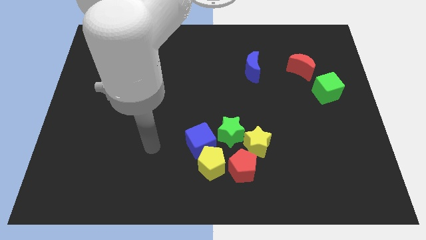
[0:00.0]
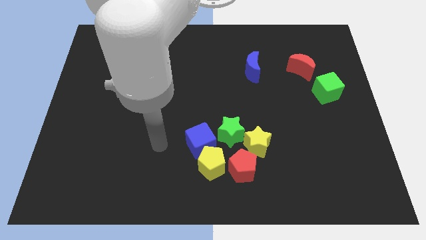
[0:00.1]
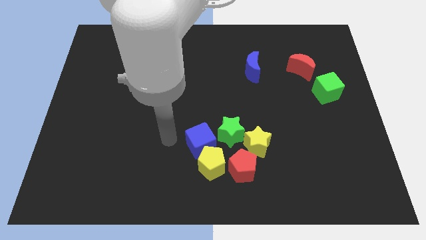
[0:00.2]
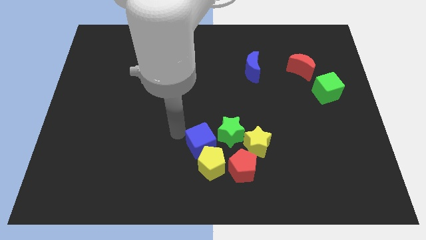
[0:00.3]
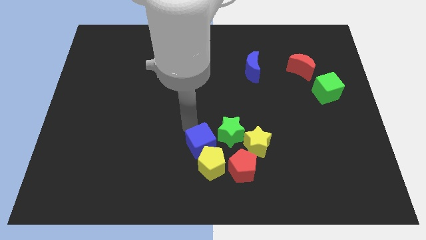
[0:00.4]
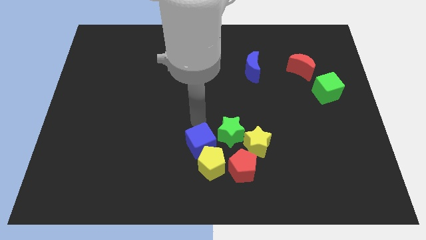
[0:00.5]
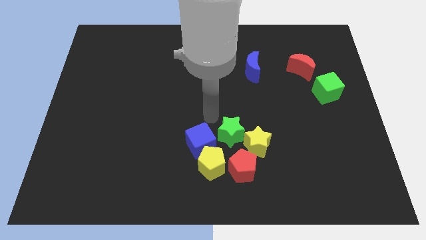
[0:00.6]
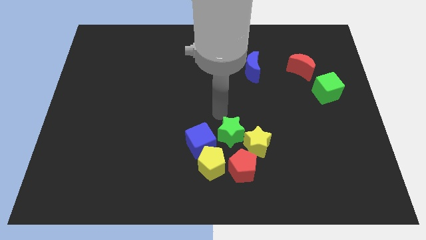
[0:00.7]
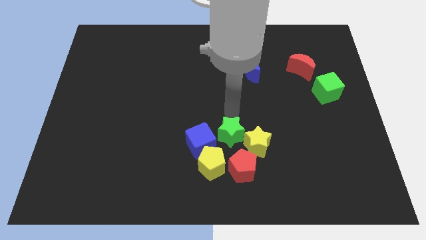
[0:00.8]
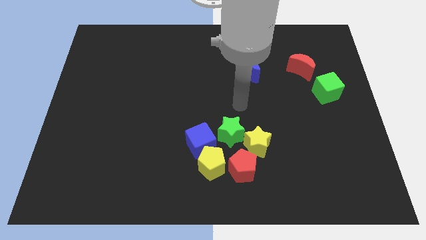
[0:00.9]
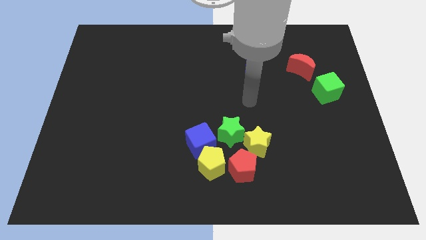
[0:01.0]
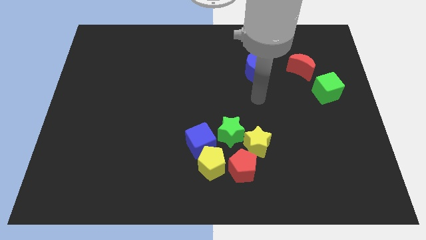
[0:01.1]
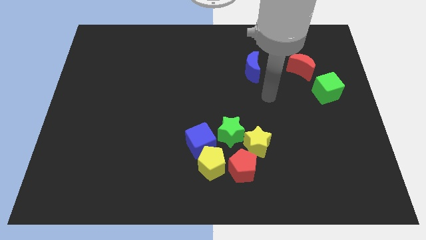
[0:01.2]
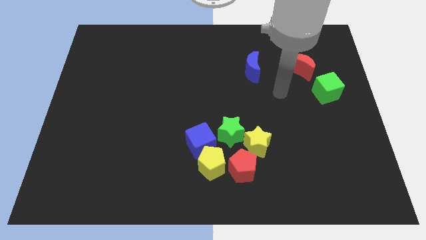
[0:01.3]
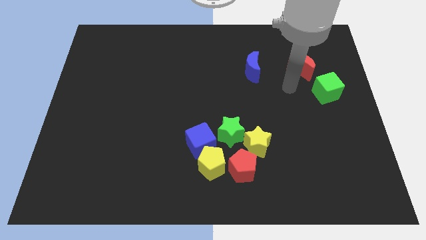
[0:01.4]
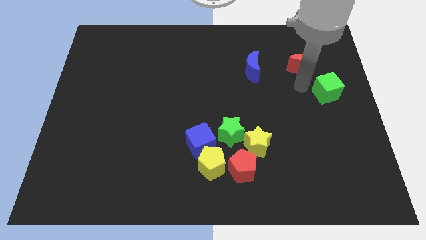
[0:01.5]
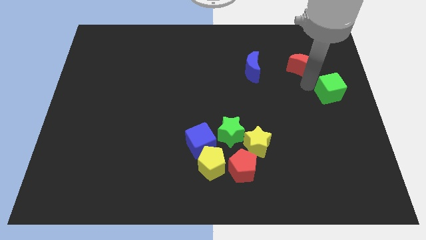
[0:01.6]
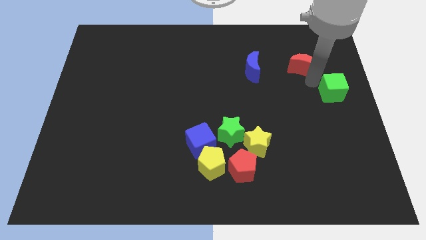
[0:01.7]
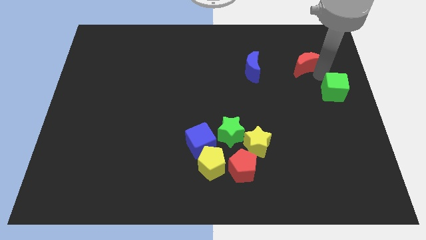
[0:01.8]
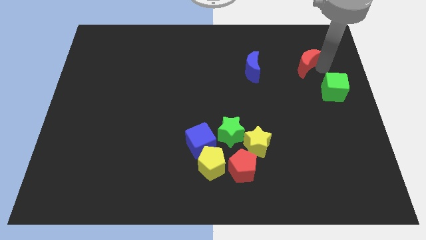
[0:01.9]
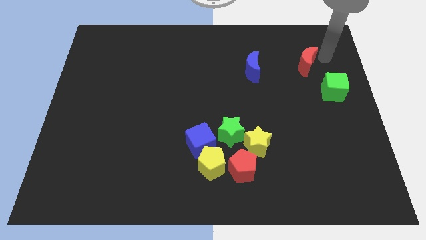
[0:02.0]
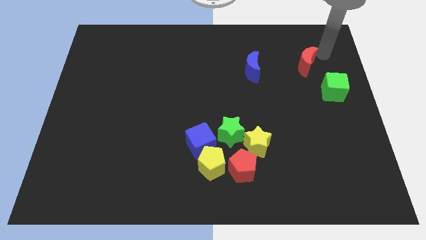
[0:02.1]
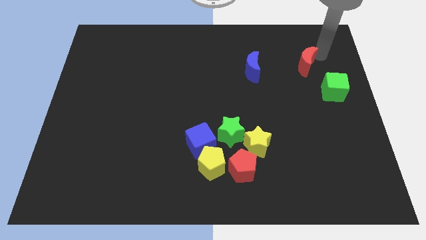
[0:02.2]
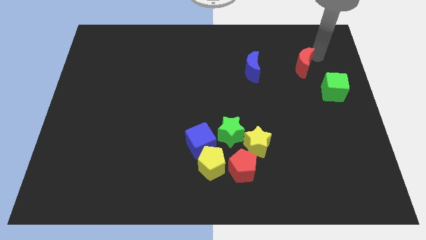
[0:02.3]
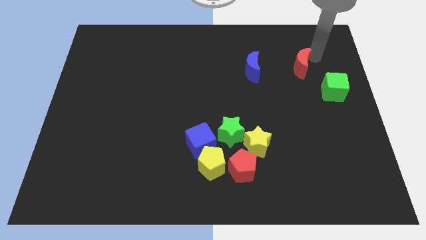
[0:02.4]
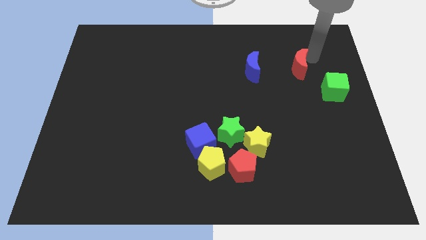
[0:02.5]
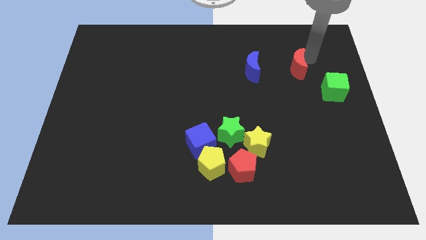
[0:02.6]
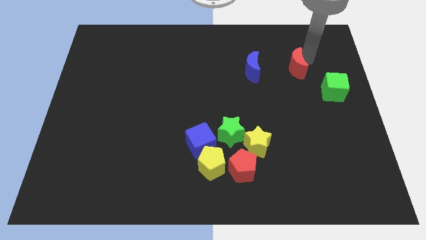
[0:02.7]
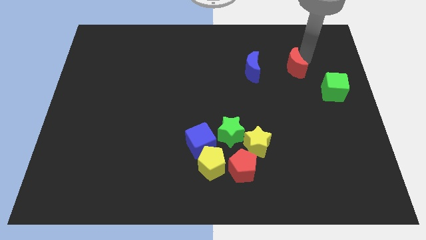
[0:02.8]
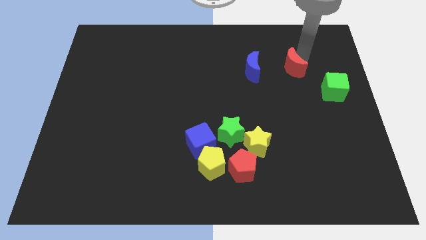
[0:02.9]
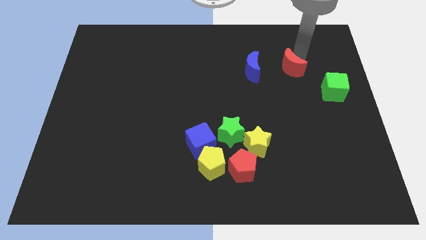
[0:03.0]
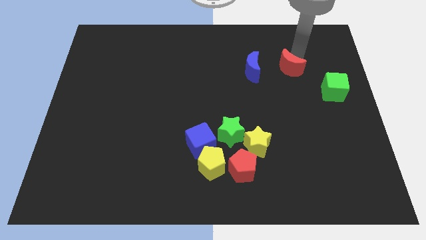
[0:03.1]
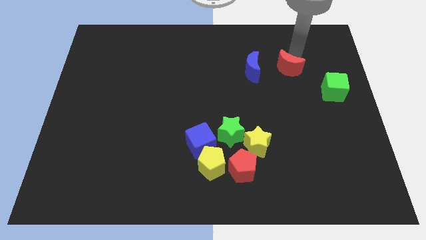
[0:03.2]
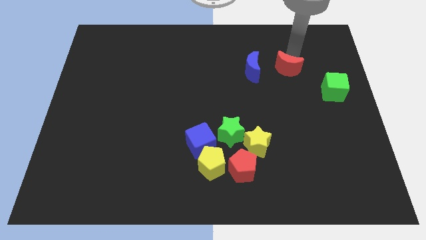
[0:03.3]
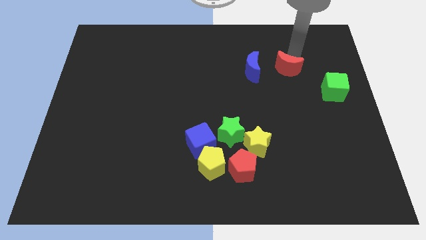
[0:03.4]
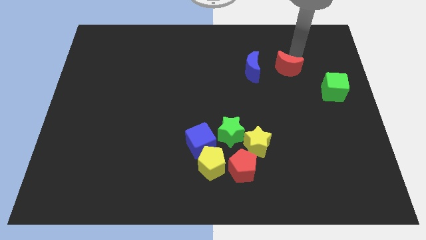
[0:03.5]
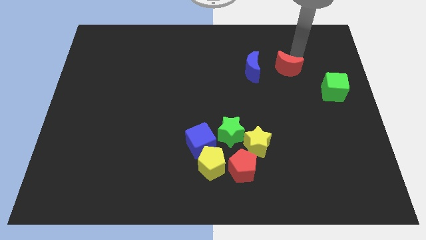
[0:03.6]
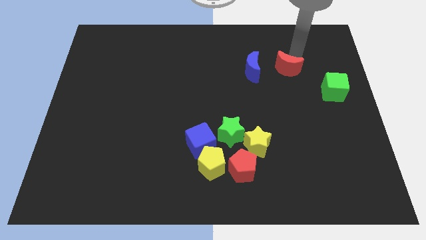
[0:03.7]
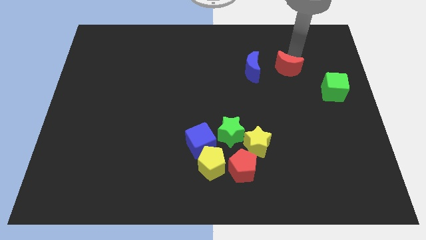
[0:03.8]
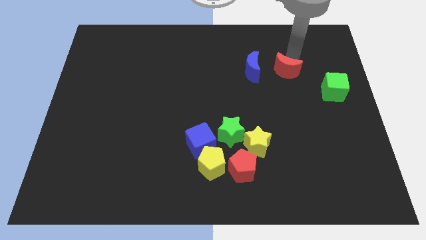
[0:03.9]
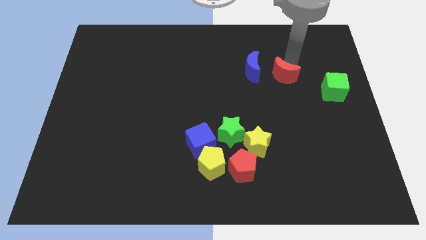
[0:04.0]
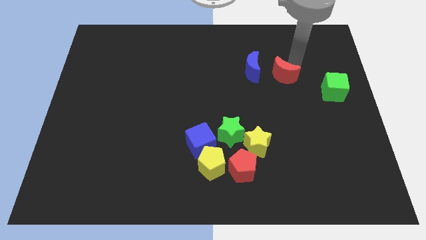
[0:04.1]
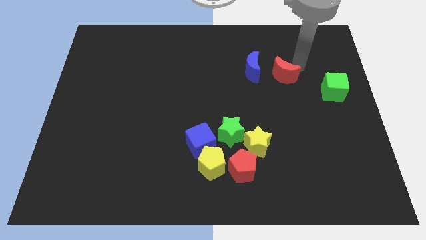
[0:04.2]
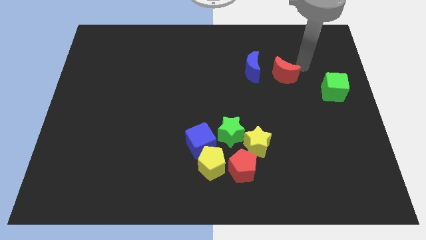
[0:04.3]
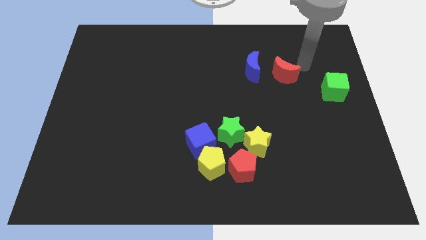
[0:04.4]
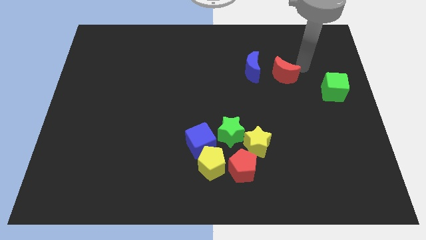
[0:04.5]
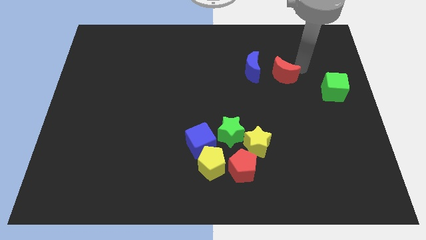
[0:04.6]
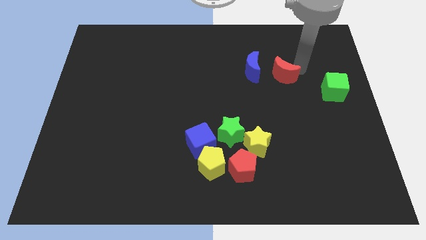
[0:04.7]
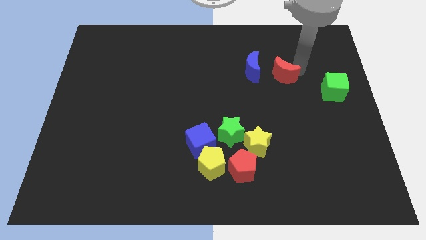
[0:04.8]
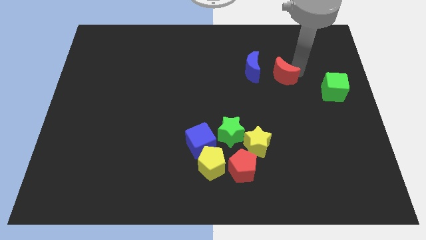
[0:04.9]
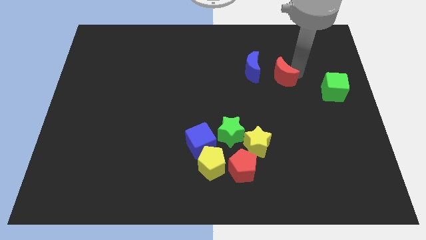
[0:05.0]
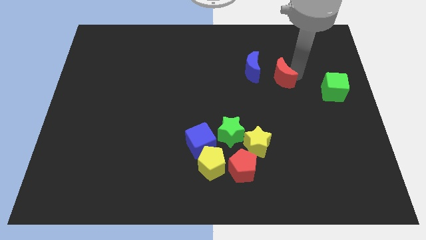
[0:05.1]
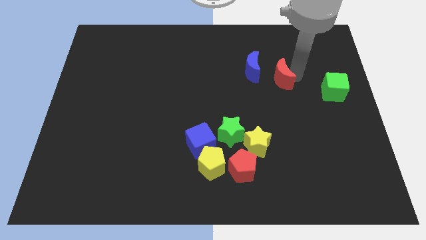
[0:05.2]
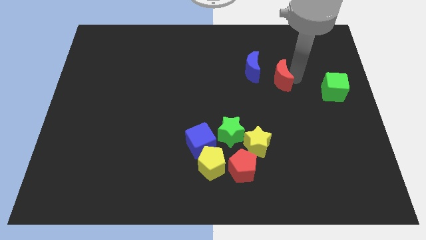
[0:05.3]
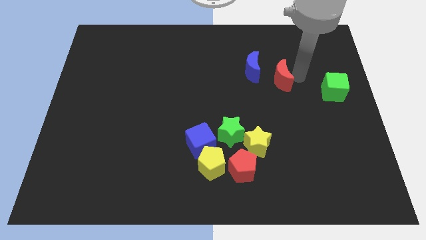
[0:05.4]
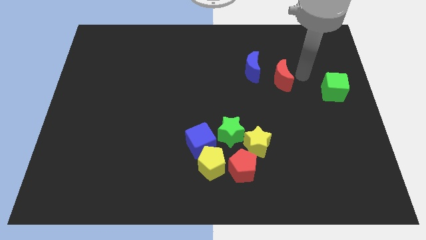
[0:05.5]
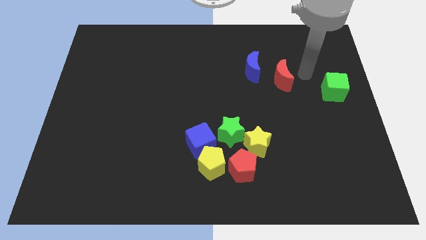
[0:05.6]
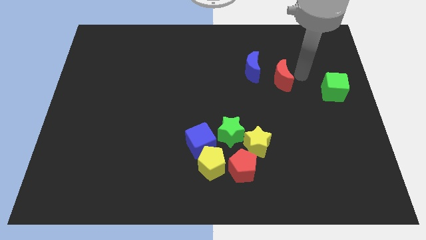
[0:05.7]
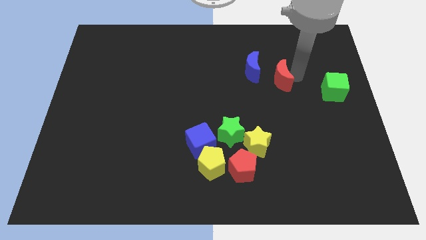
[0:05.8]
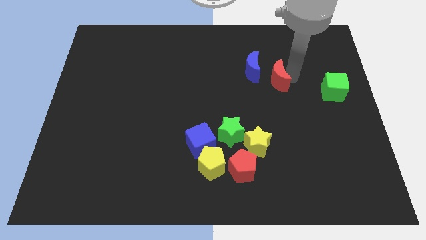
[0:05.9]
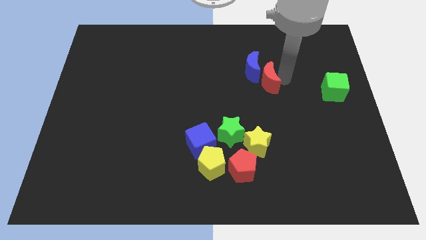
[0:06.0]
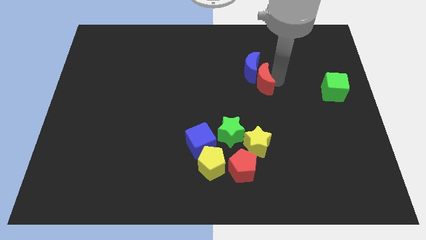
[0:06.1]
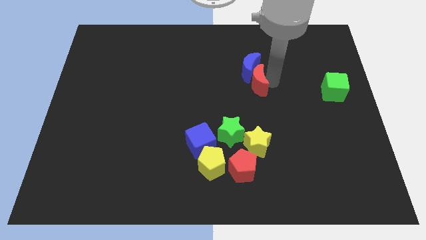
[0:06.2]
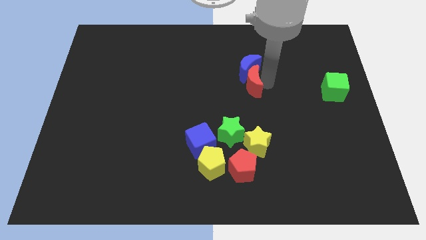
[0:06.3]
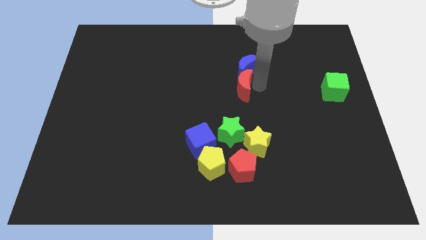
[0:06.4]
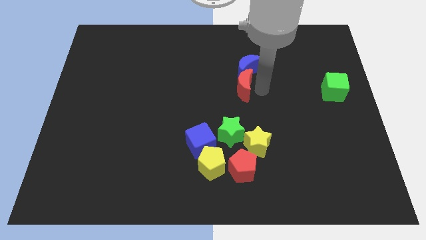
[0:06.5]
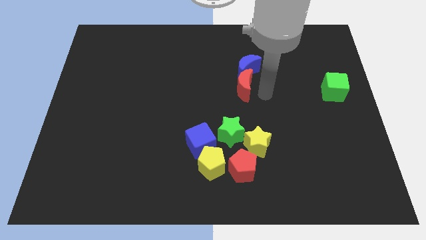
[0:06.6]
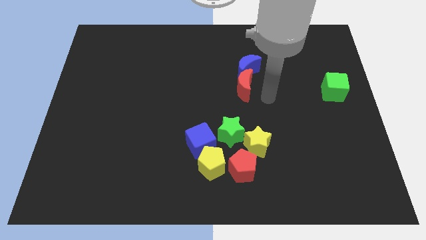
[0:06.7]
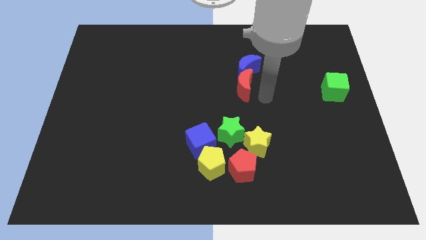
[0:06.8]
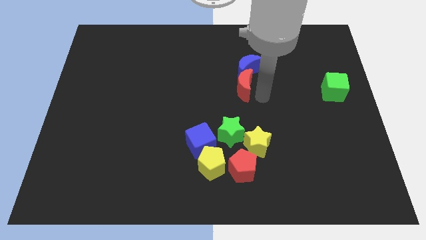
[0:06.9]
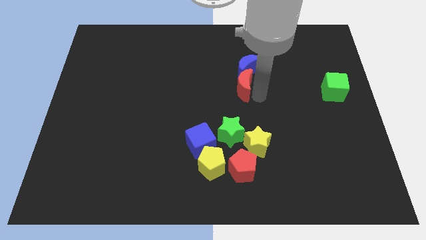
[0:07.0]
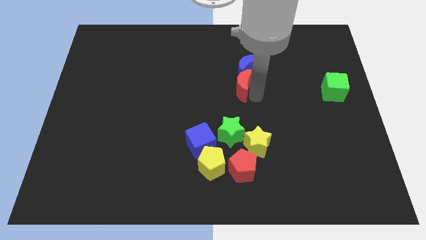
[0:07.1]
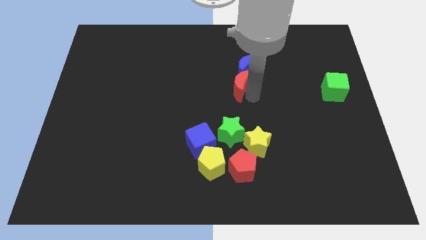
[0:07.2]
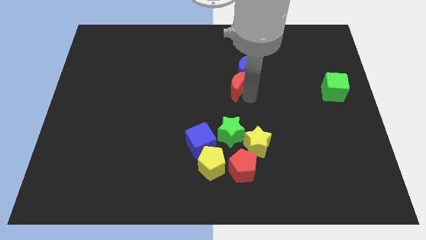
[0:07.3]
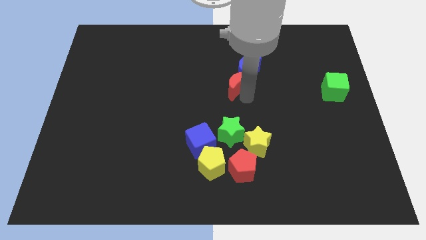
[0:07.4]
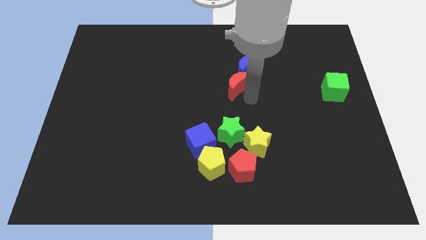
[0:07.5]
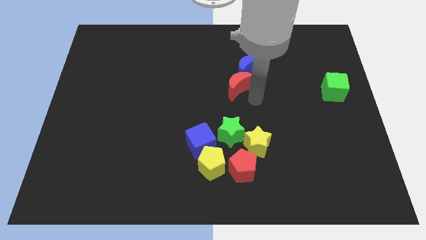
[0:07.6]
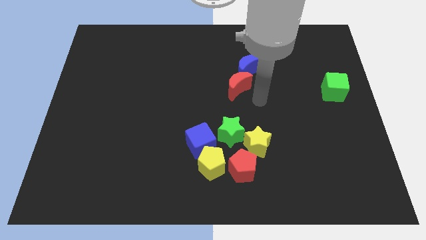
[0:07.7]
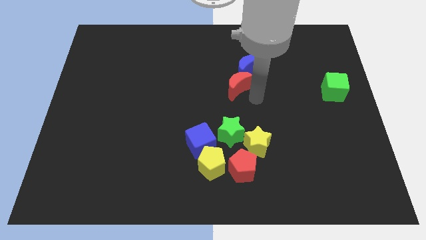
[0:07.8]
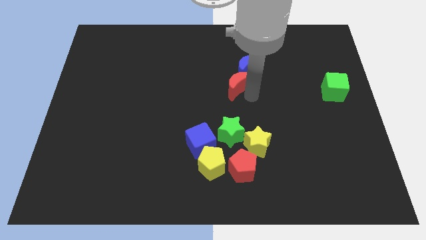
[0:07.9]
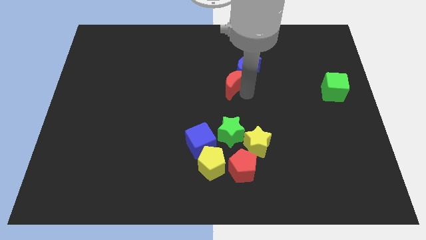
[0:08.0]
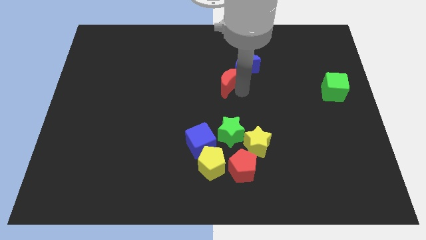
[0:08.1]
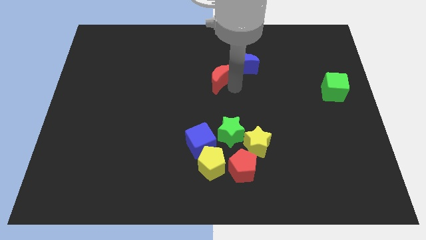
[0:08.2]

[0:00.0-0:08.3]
move the red moon to the left
